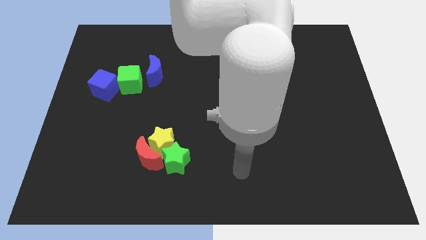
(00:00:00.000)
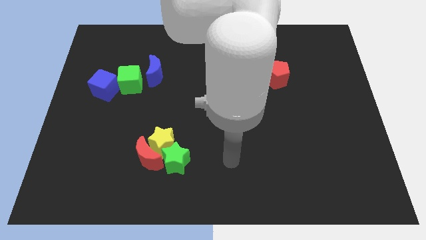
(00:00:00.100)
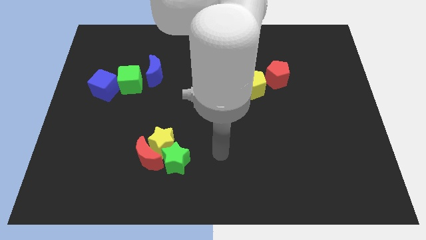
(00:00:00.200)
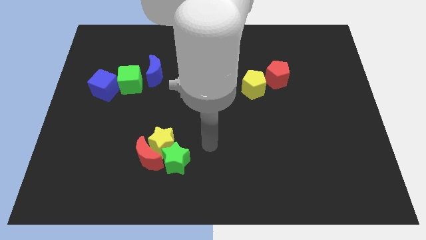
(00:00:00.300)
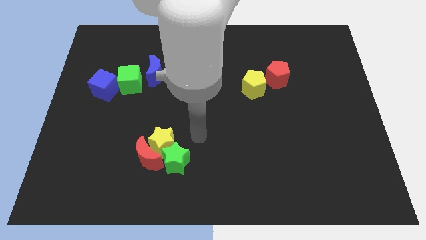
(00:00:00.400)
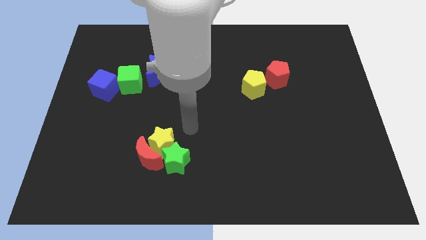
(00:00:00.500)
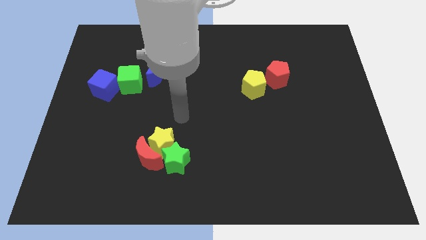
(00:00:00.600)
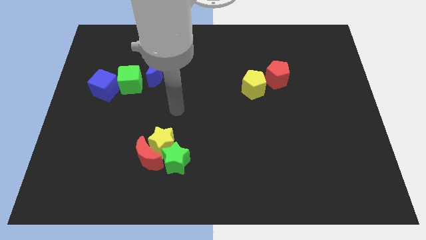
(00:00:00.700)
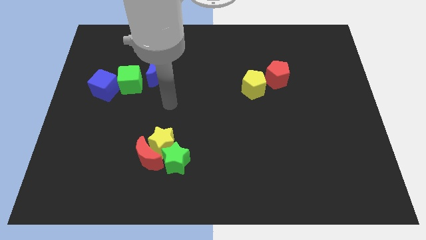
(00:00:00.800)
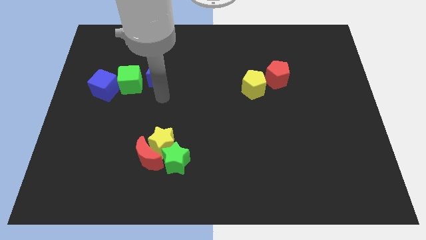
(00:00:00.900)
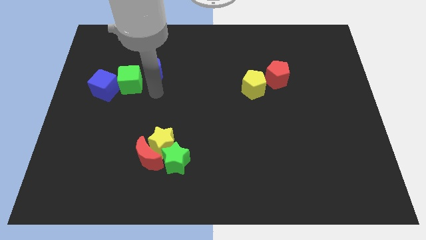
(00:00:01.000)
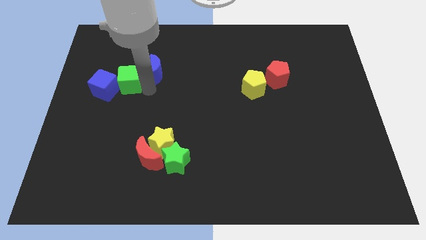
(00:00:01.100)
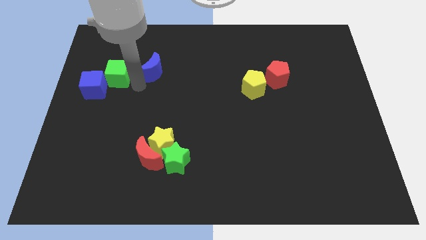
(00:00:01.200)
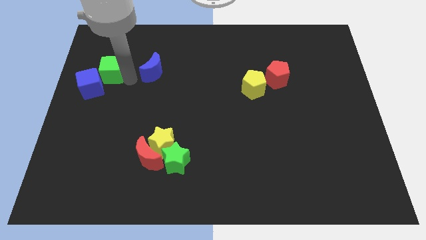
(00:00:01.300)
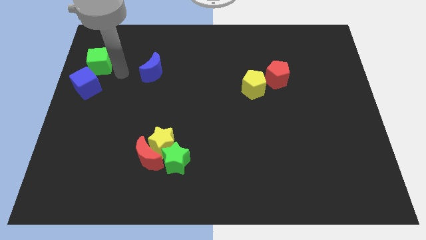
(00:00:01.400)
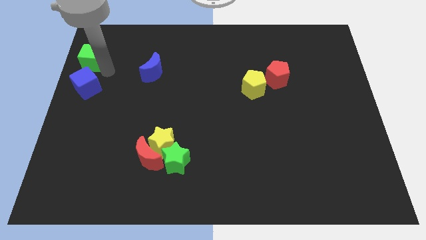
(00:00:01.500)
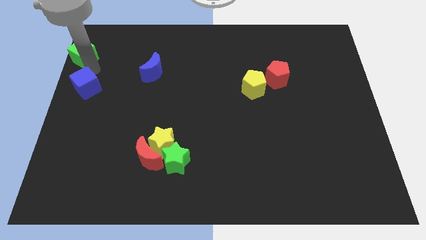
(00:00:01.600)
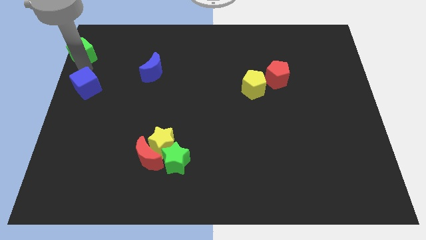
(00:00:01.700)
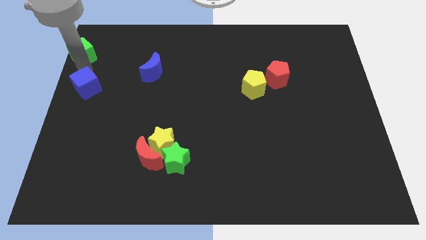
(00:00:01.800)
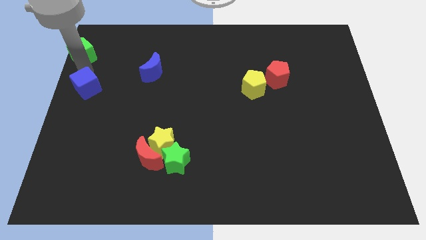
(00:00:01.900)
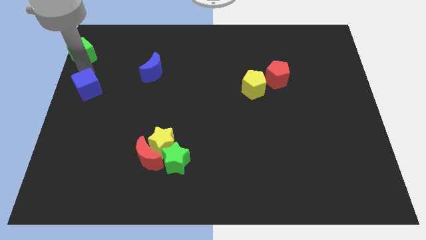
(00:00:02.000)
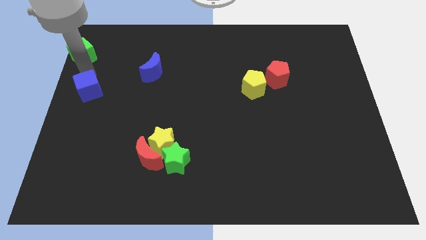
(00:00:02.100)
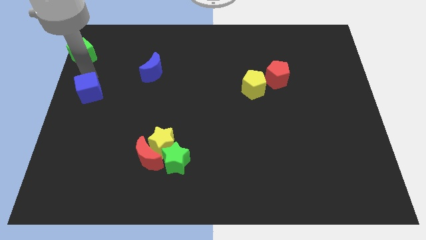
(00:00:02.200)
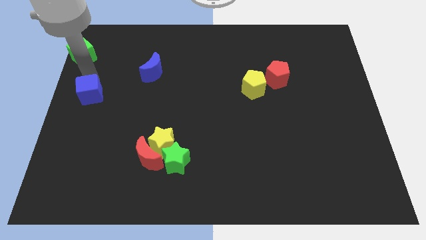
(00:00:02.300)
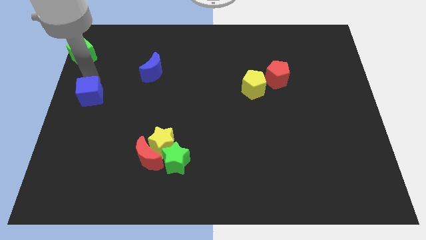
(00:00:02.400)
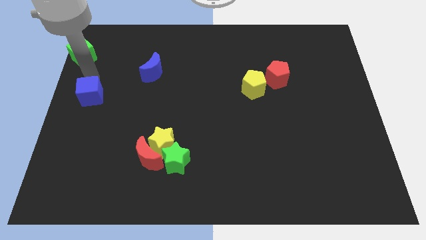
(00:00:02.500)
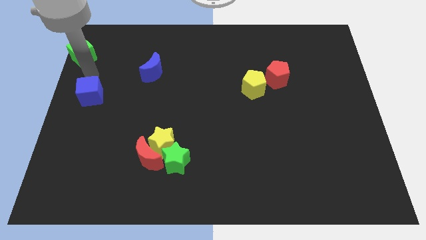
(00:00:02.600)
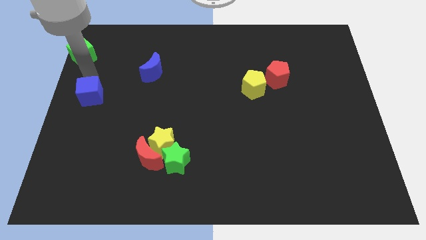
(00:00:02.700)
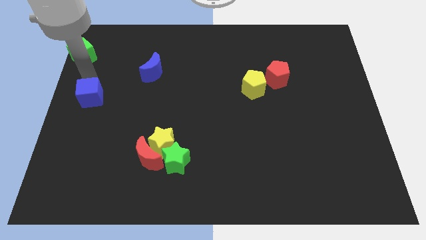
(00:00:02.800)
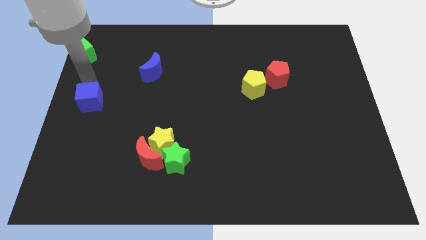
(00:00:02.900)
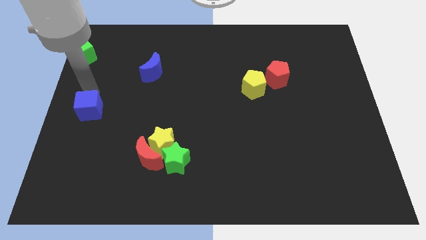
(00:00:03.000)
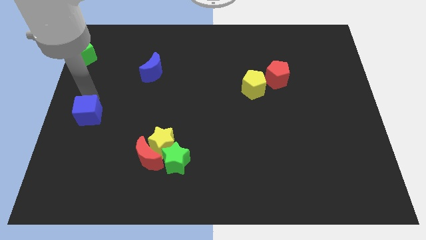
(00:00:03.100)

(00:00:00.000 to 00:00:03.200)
slightly slide the blue cube down

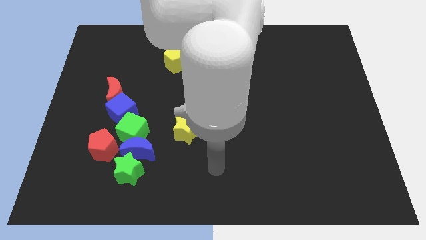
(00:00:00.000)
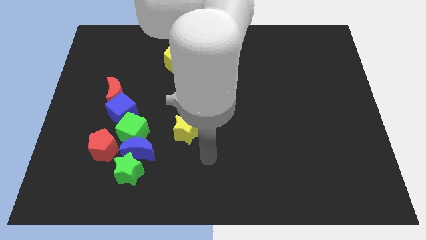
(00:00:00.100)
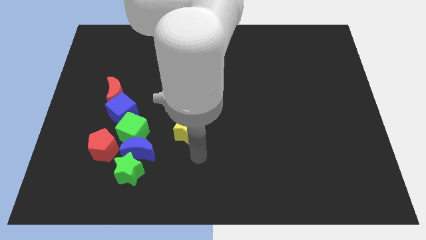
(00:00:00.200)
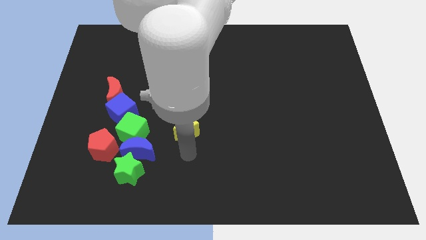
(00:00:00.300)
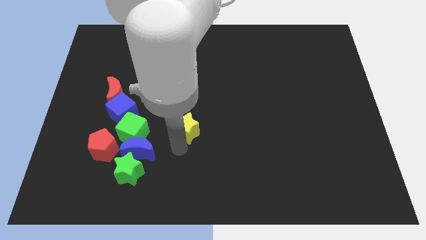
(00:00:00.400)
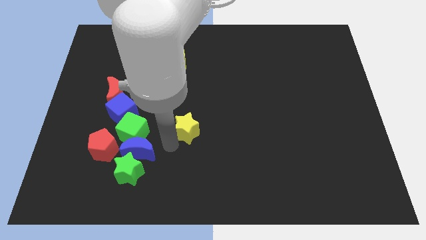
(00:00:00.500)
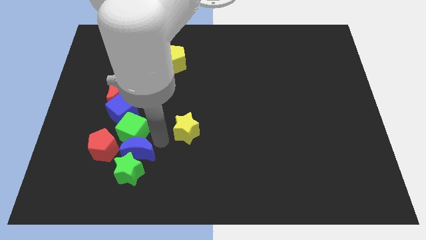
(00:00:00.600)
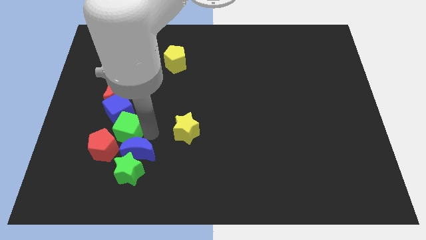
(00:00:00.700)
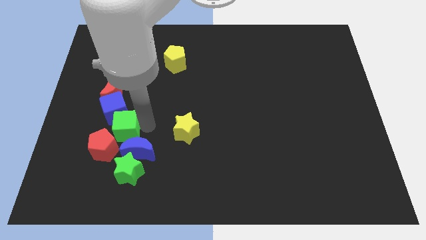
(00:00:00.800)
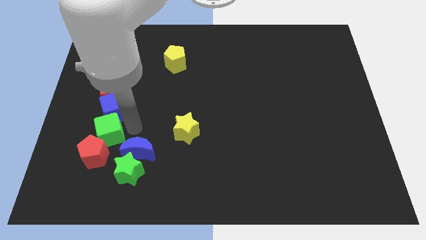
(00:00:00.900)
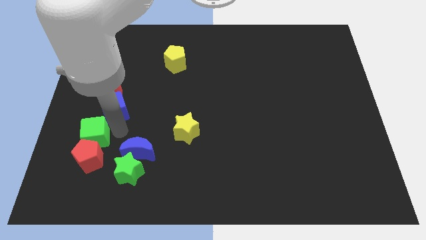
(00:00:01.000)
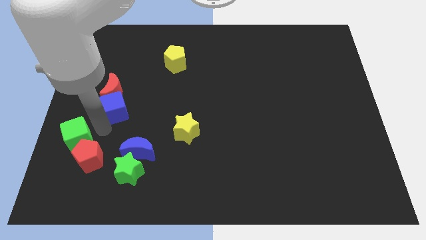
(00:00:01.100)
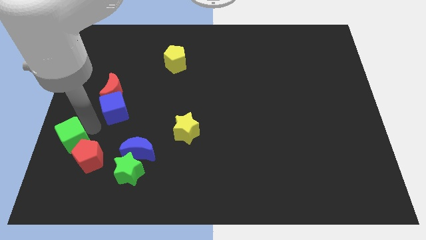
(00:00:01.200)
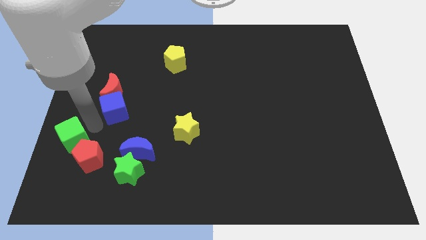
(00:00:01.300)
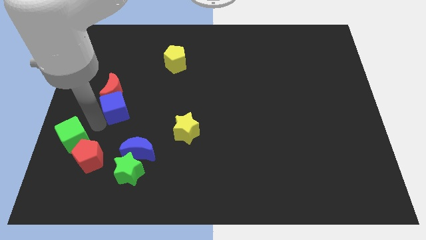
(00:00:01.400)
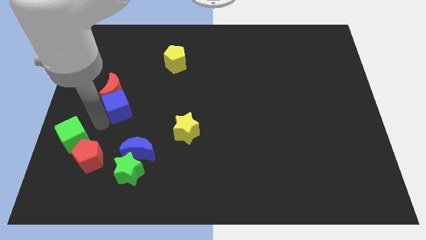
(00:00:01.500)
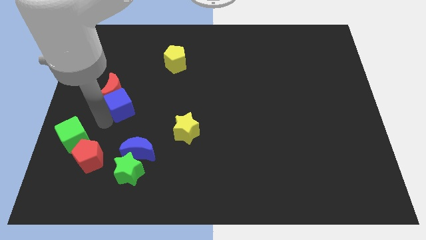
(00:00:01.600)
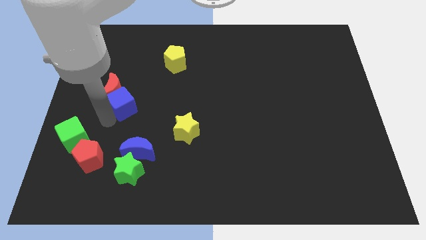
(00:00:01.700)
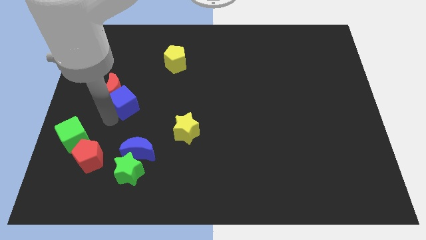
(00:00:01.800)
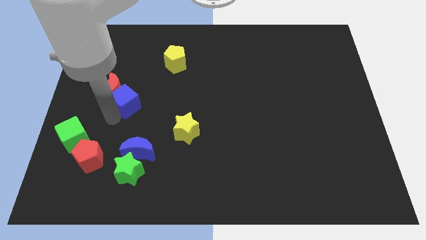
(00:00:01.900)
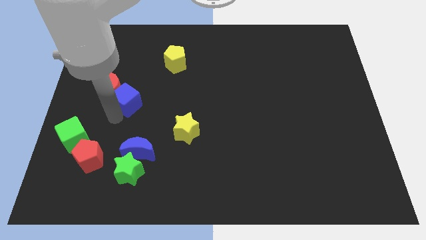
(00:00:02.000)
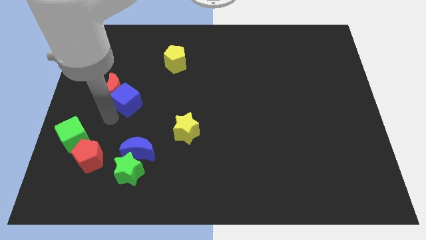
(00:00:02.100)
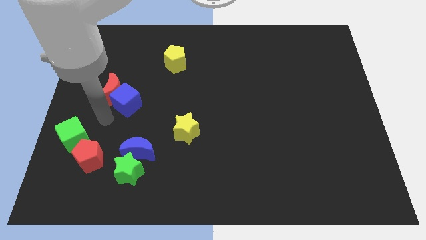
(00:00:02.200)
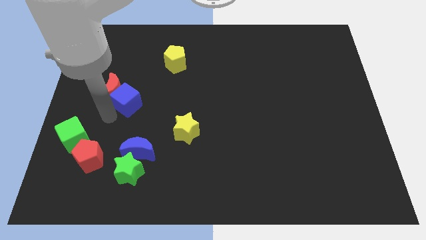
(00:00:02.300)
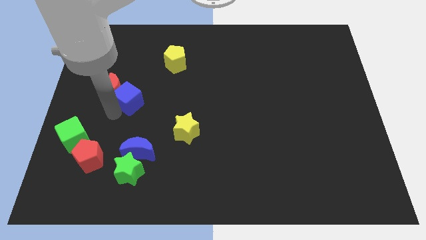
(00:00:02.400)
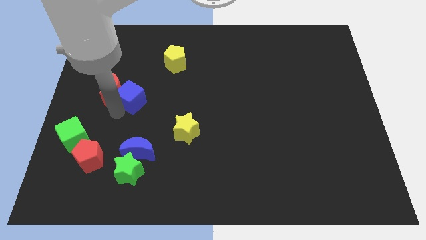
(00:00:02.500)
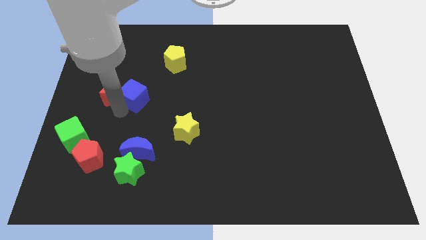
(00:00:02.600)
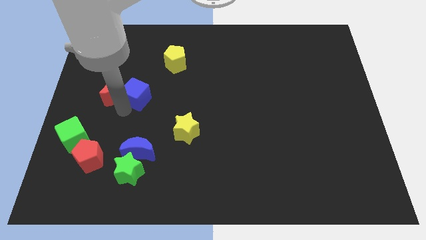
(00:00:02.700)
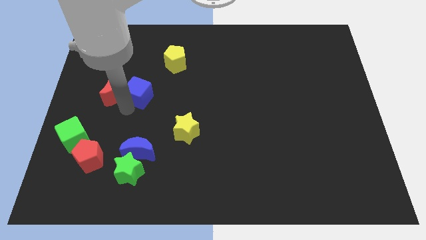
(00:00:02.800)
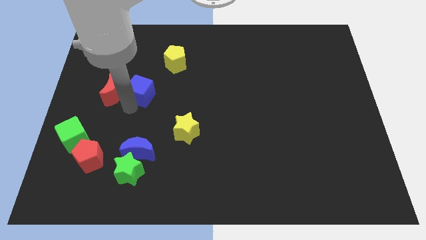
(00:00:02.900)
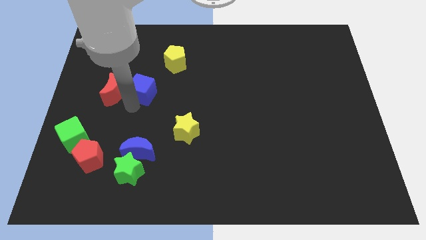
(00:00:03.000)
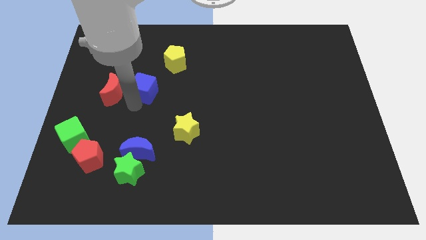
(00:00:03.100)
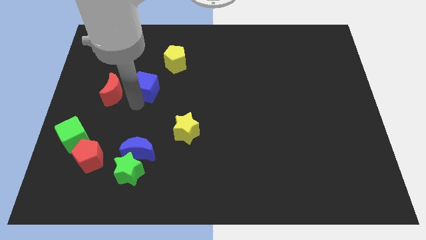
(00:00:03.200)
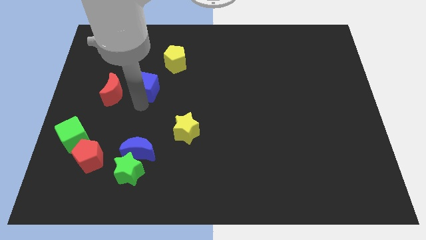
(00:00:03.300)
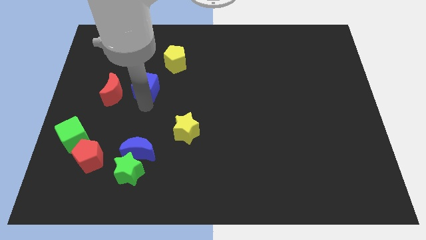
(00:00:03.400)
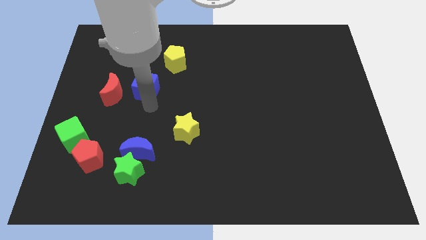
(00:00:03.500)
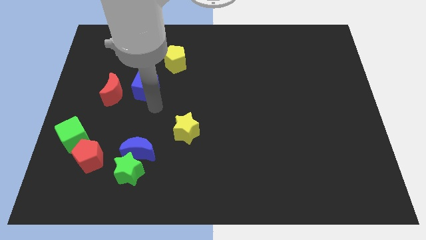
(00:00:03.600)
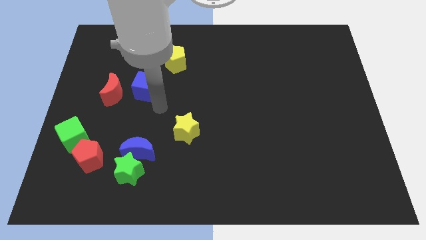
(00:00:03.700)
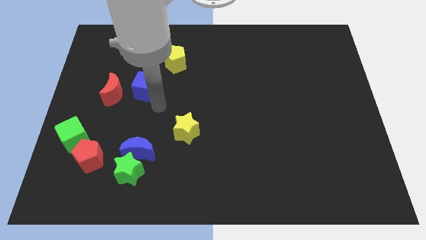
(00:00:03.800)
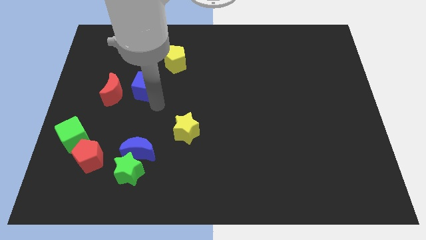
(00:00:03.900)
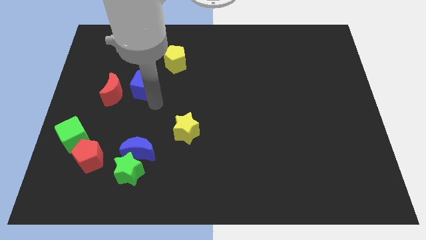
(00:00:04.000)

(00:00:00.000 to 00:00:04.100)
slide the blue cube upwards slightly

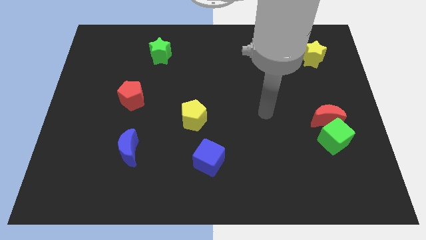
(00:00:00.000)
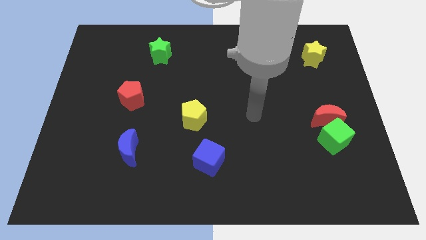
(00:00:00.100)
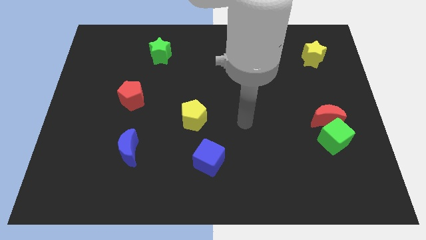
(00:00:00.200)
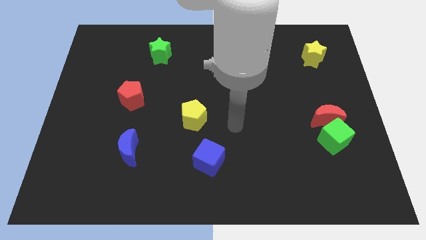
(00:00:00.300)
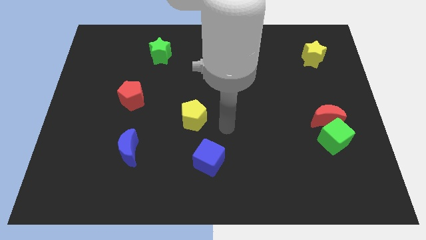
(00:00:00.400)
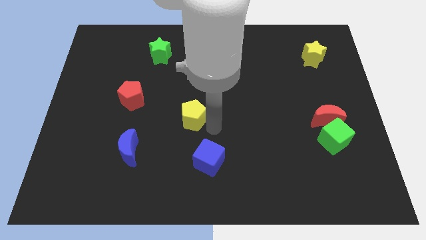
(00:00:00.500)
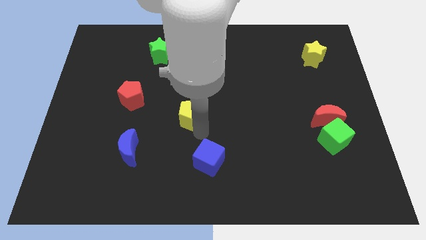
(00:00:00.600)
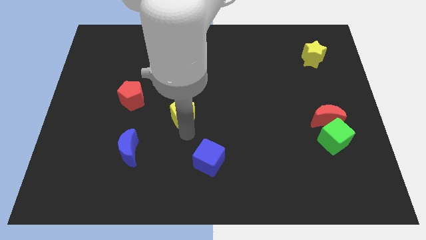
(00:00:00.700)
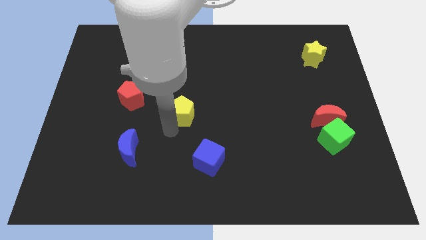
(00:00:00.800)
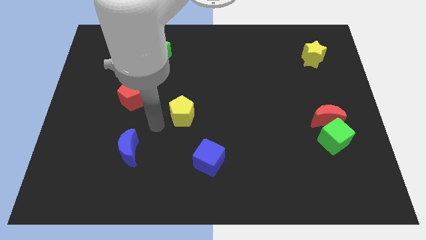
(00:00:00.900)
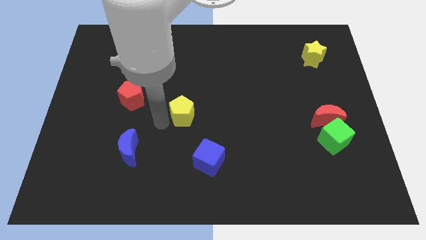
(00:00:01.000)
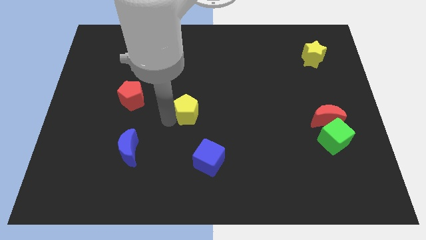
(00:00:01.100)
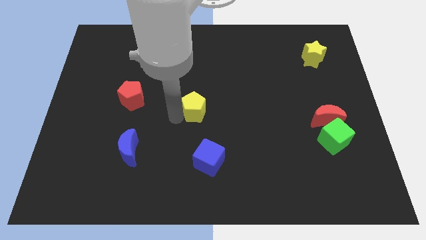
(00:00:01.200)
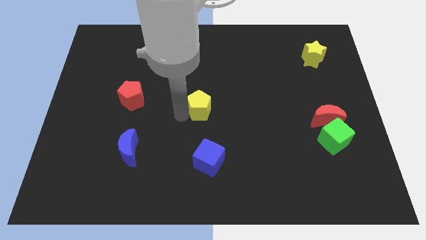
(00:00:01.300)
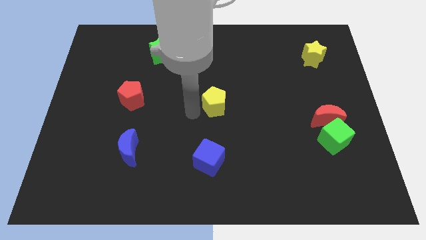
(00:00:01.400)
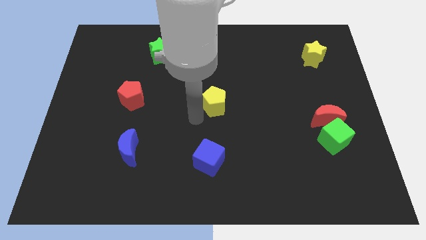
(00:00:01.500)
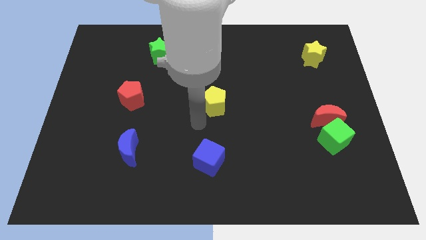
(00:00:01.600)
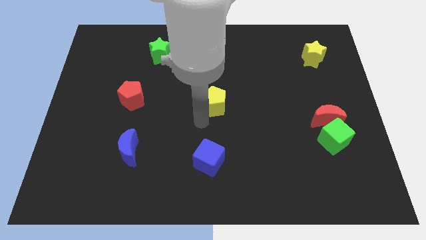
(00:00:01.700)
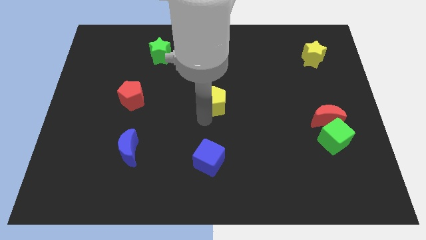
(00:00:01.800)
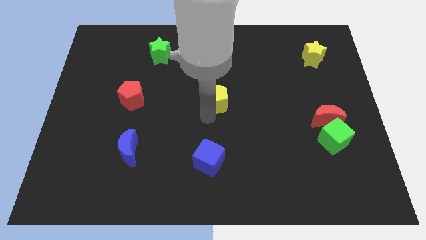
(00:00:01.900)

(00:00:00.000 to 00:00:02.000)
slightly move the yellow pentagon diagonally upwards and right
